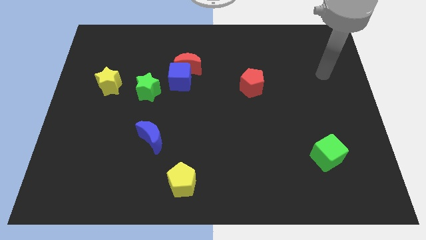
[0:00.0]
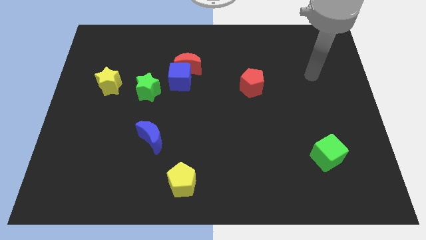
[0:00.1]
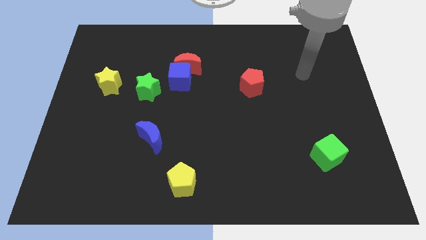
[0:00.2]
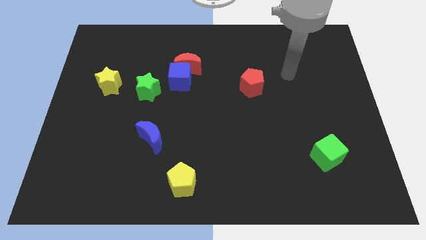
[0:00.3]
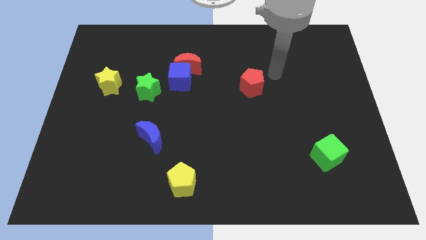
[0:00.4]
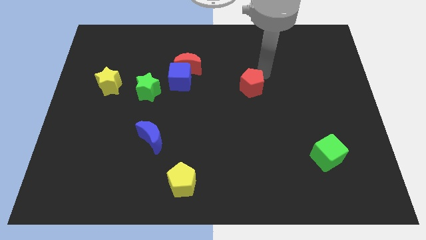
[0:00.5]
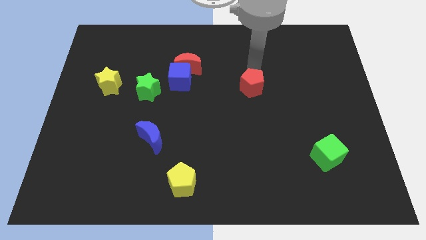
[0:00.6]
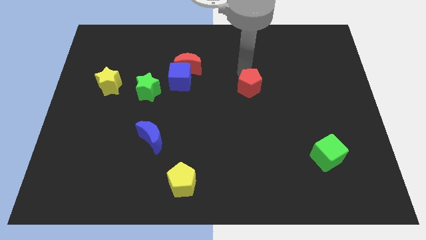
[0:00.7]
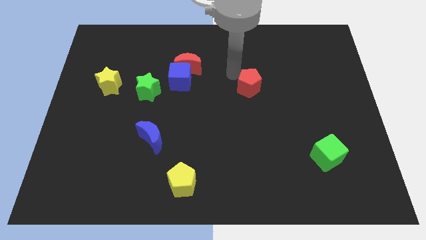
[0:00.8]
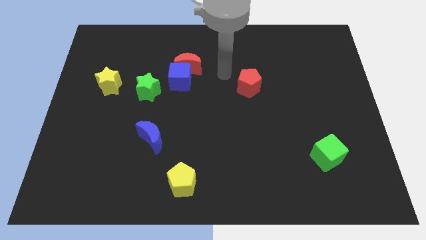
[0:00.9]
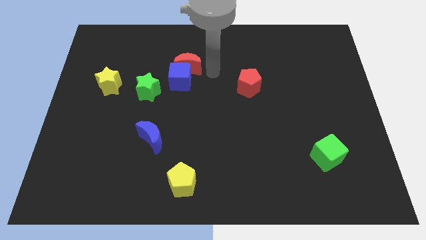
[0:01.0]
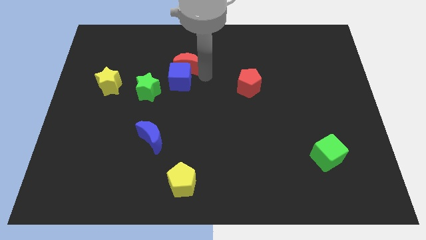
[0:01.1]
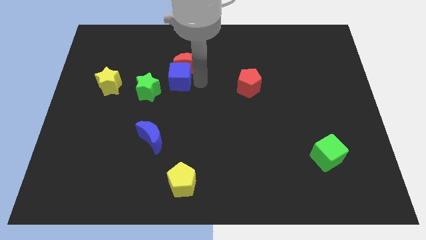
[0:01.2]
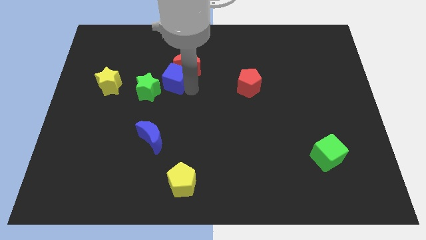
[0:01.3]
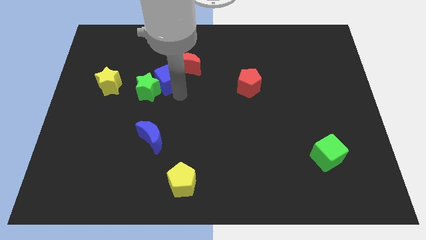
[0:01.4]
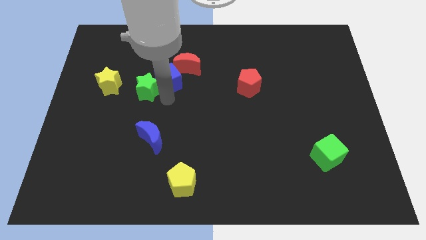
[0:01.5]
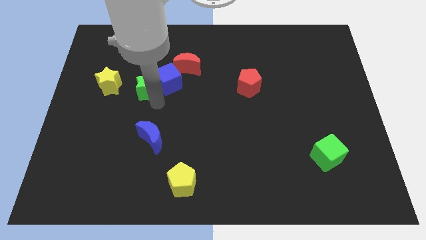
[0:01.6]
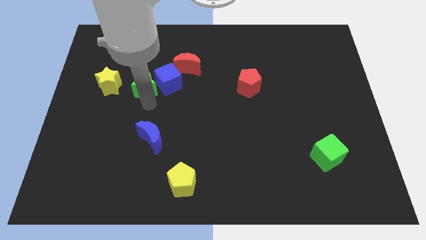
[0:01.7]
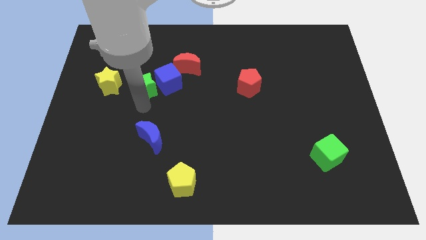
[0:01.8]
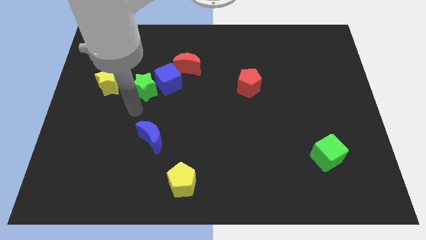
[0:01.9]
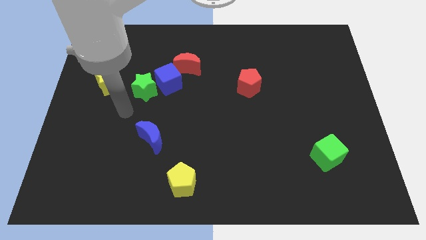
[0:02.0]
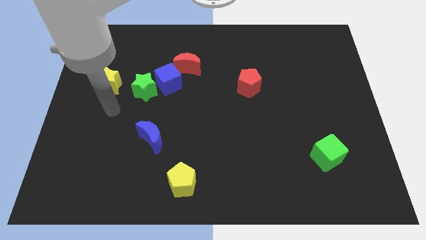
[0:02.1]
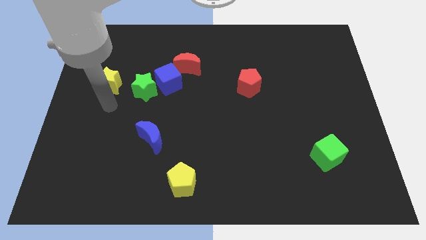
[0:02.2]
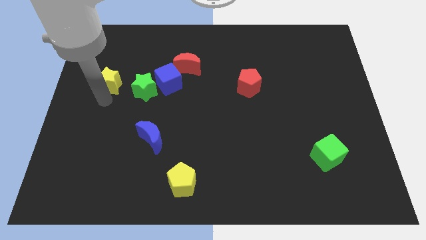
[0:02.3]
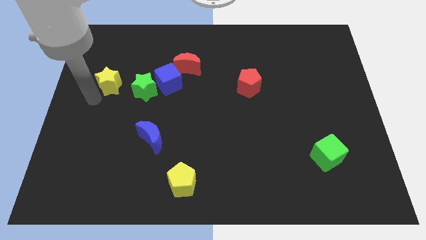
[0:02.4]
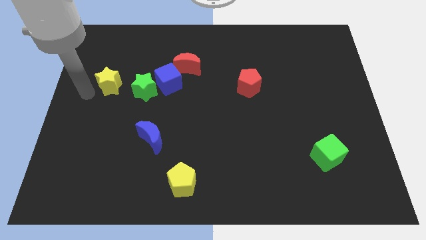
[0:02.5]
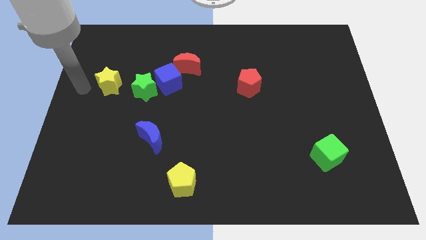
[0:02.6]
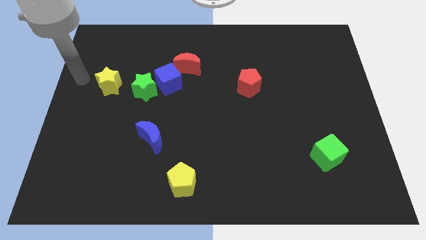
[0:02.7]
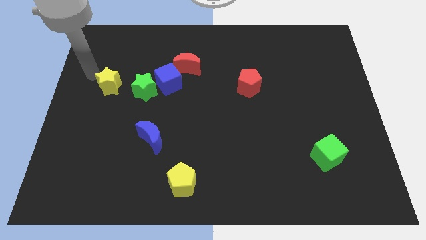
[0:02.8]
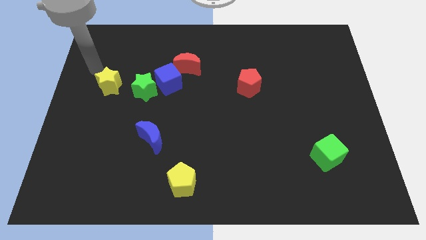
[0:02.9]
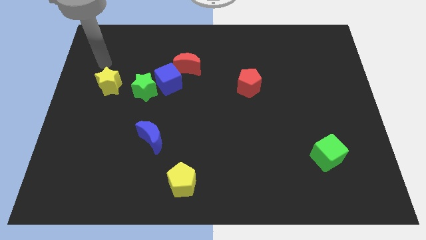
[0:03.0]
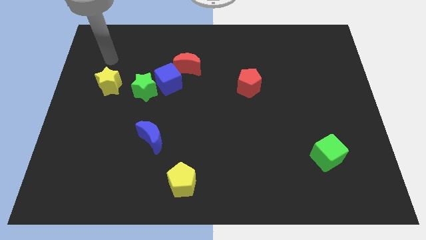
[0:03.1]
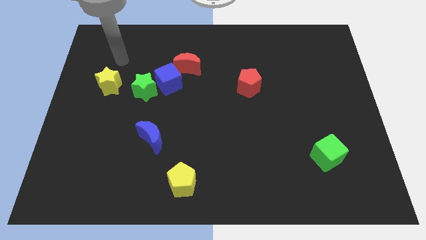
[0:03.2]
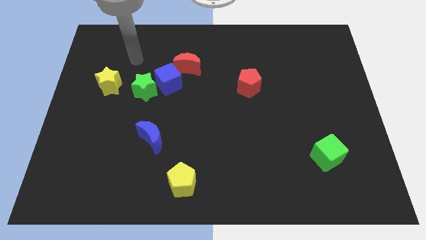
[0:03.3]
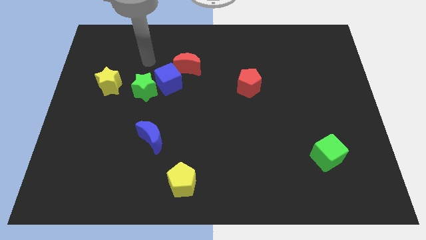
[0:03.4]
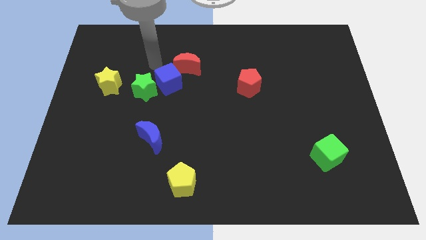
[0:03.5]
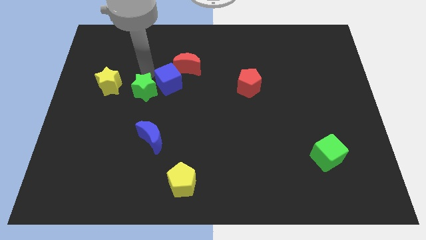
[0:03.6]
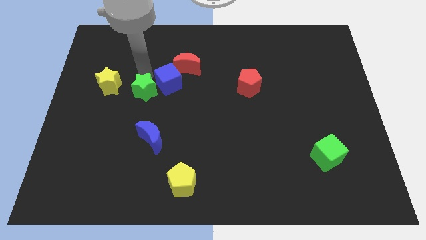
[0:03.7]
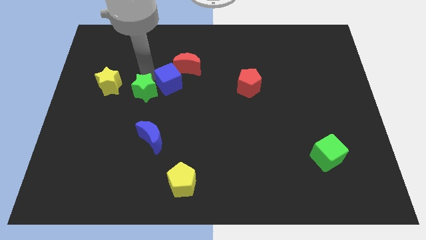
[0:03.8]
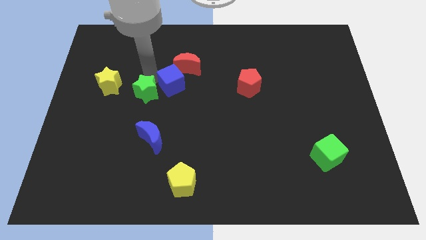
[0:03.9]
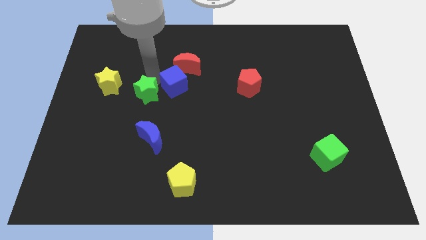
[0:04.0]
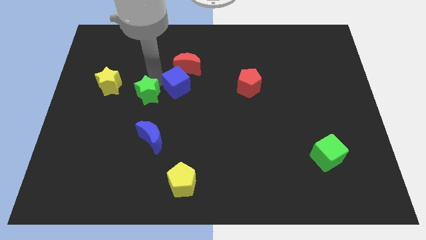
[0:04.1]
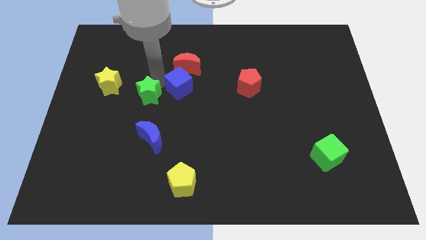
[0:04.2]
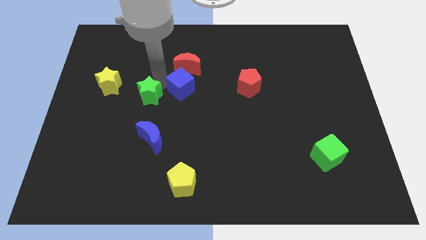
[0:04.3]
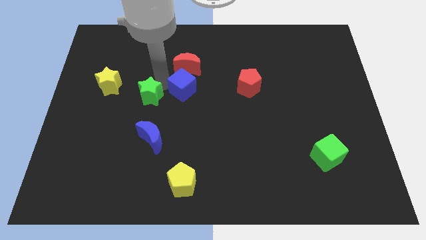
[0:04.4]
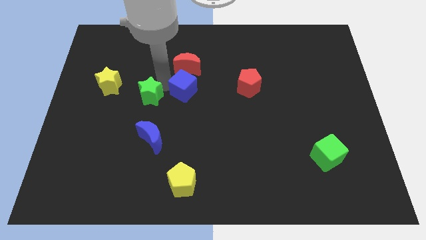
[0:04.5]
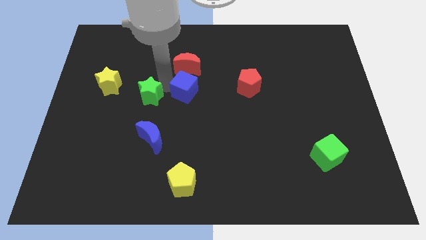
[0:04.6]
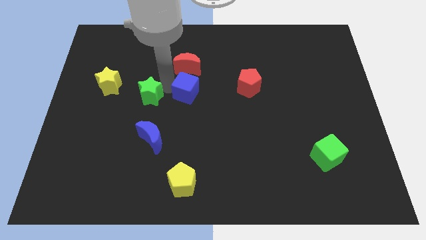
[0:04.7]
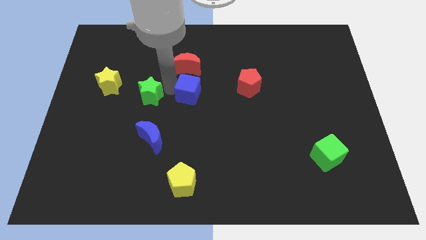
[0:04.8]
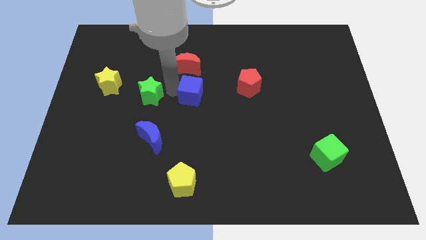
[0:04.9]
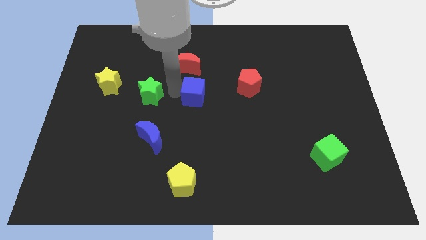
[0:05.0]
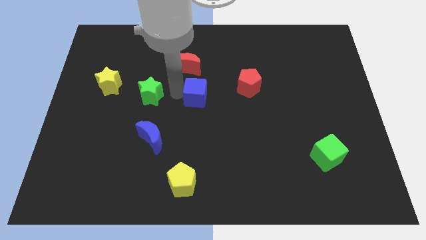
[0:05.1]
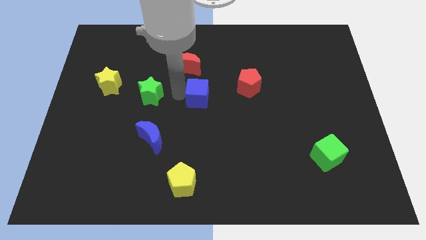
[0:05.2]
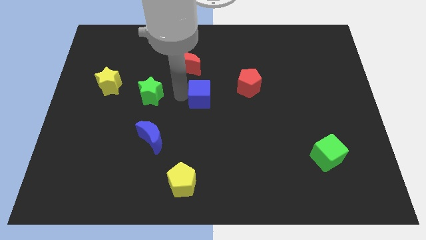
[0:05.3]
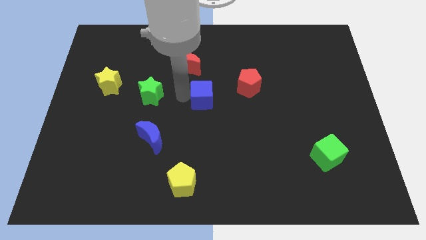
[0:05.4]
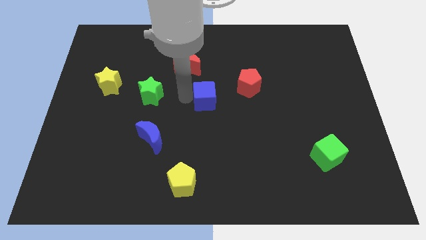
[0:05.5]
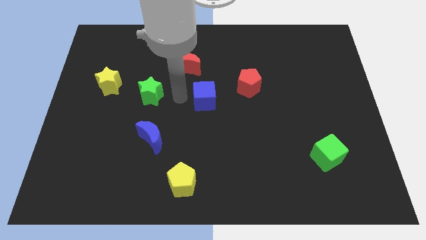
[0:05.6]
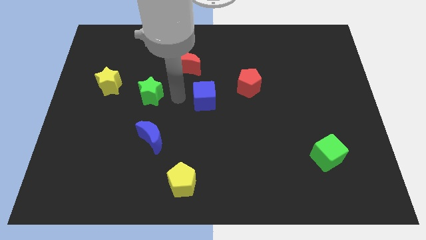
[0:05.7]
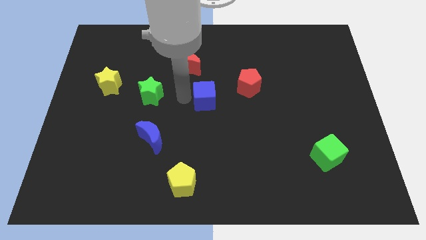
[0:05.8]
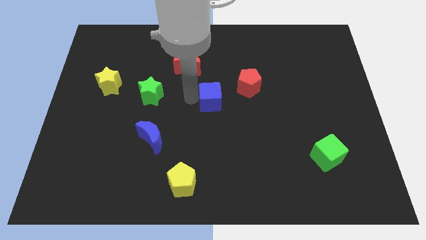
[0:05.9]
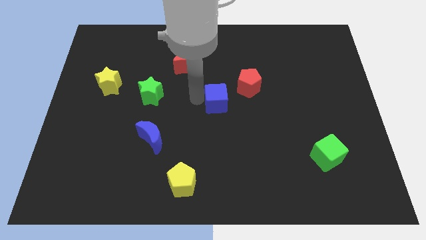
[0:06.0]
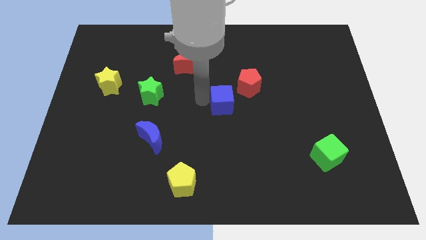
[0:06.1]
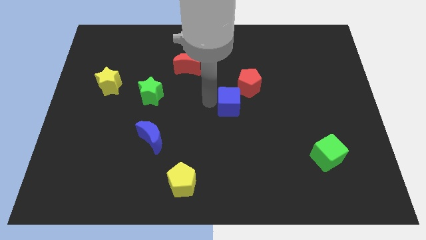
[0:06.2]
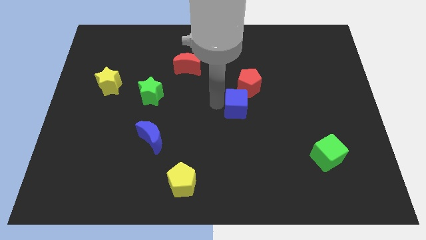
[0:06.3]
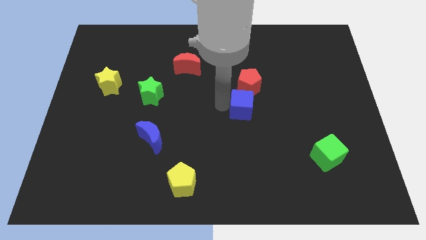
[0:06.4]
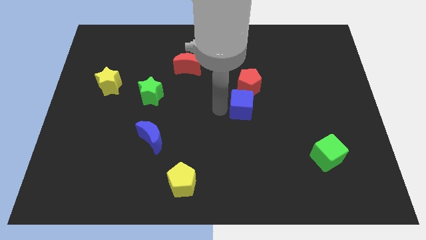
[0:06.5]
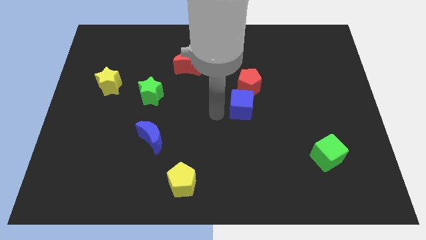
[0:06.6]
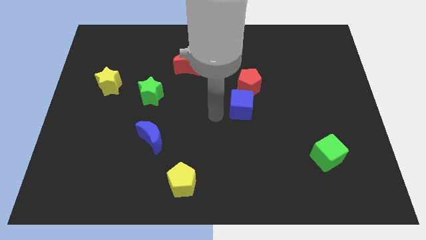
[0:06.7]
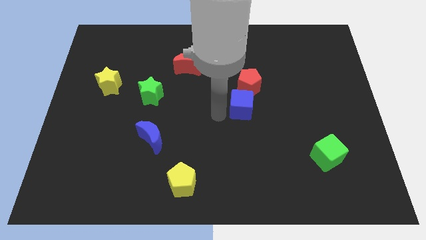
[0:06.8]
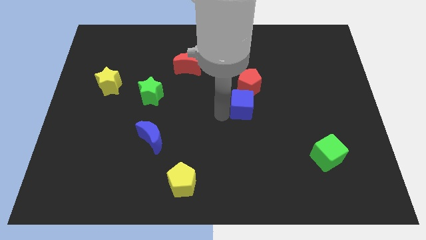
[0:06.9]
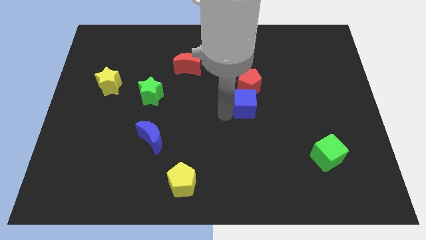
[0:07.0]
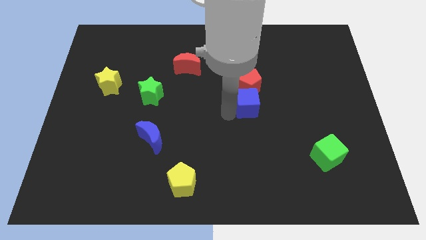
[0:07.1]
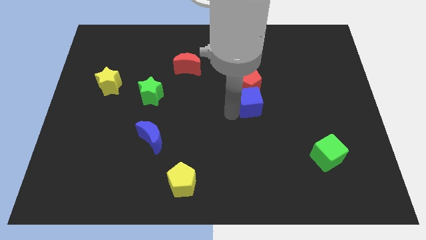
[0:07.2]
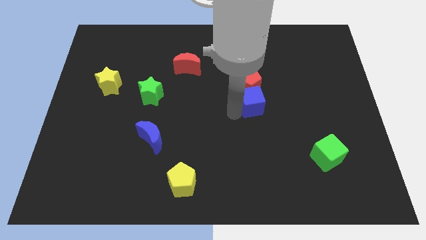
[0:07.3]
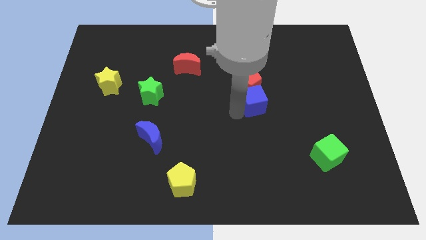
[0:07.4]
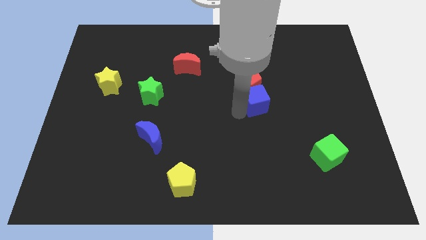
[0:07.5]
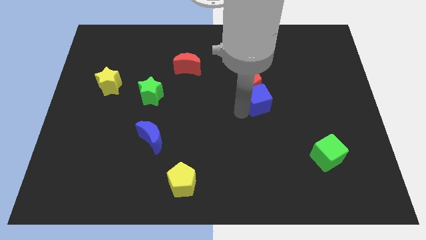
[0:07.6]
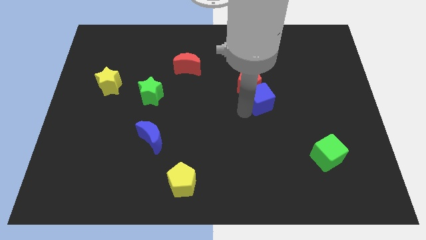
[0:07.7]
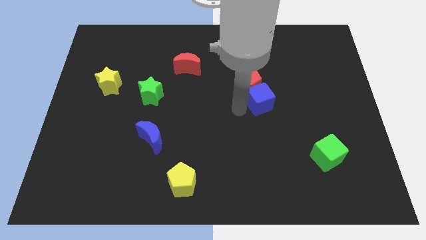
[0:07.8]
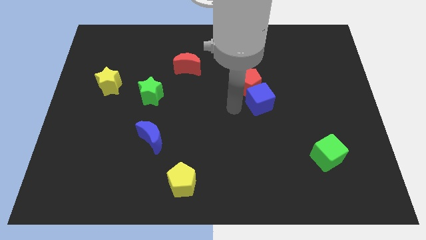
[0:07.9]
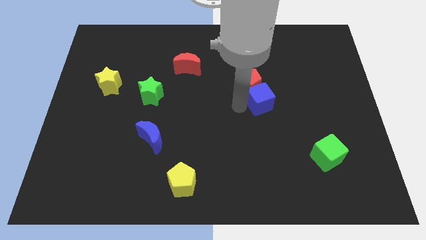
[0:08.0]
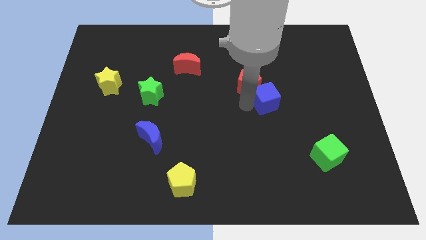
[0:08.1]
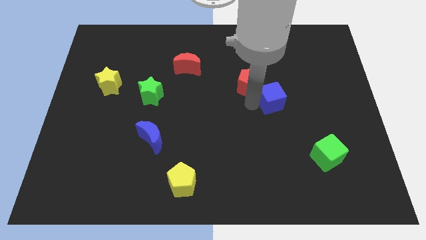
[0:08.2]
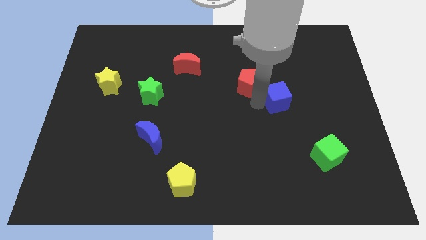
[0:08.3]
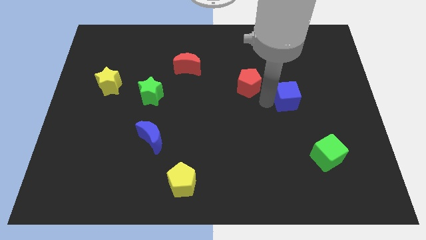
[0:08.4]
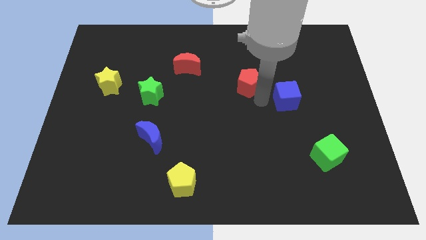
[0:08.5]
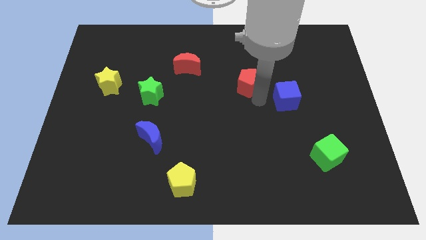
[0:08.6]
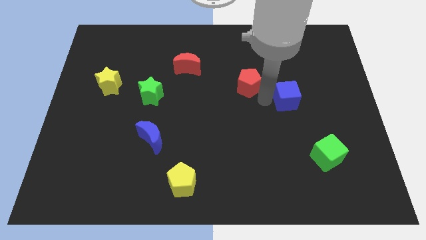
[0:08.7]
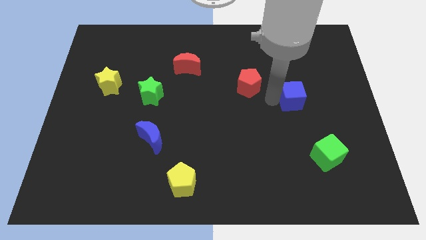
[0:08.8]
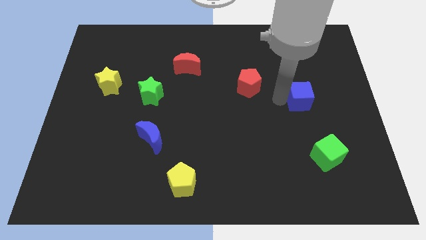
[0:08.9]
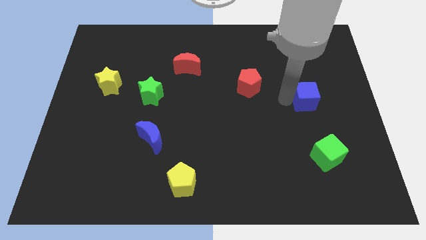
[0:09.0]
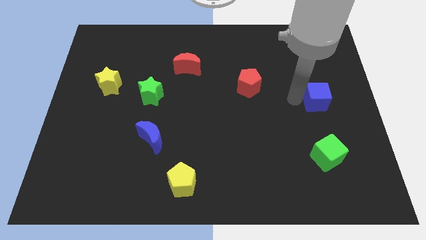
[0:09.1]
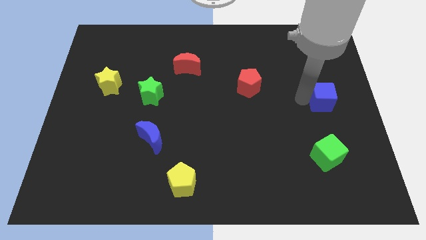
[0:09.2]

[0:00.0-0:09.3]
move the blue cube to the right side of the board
